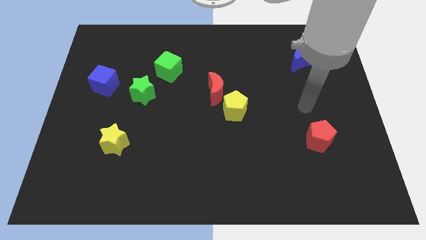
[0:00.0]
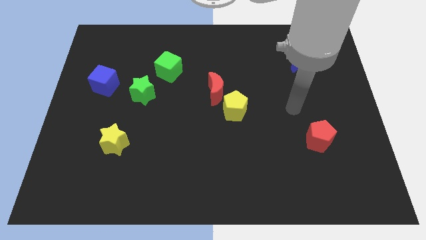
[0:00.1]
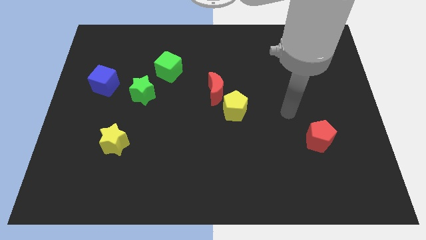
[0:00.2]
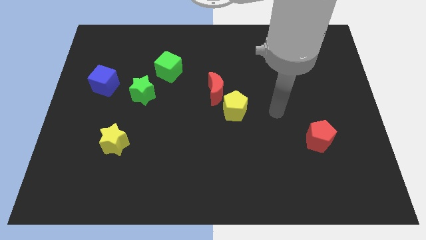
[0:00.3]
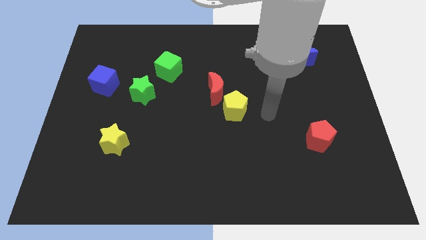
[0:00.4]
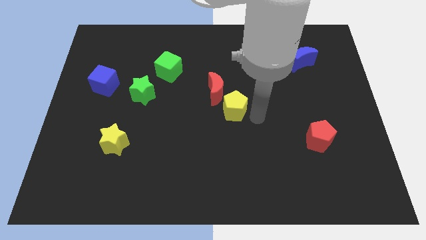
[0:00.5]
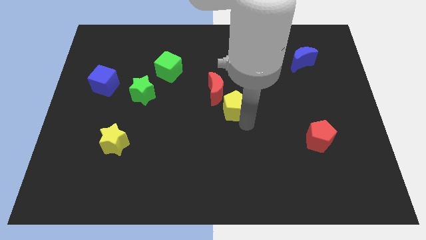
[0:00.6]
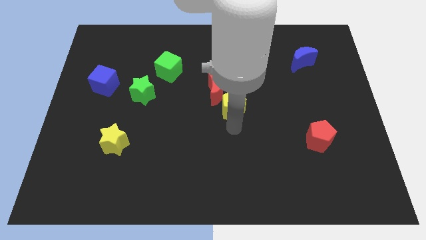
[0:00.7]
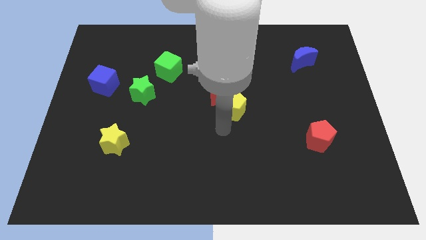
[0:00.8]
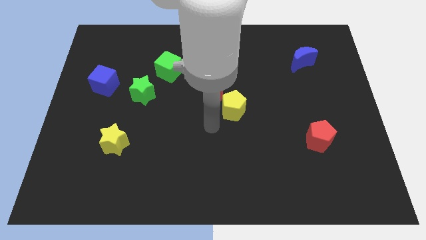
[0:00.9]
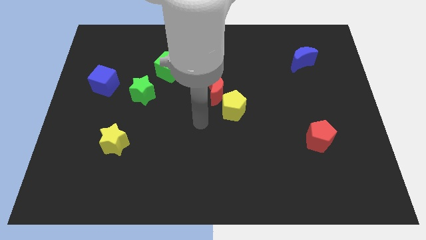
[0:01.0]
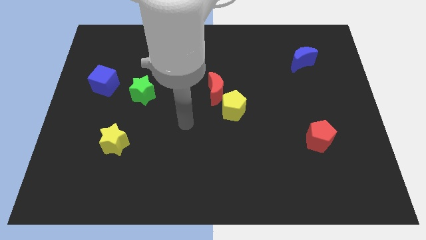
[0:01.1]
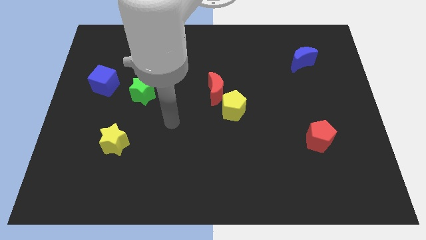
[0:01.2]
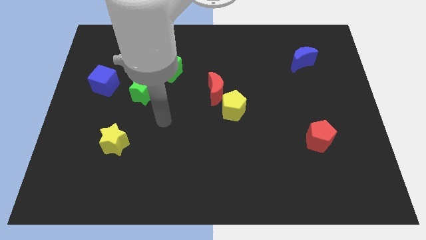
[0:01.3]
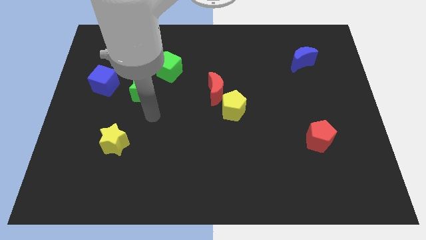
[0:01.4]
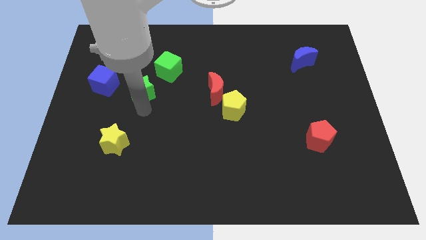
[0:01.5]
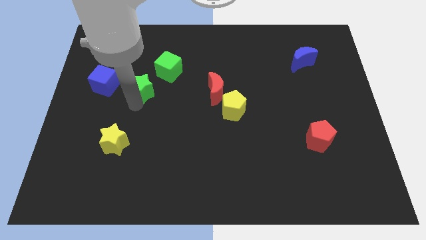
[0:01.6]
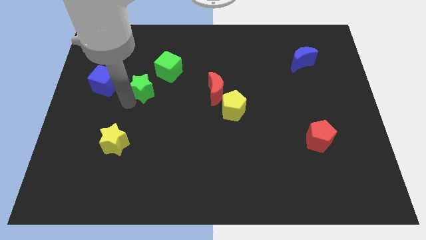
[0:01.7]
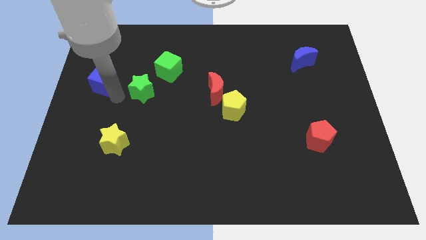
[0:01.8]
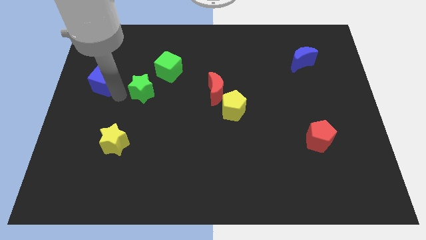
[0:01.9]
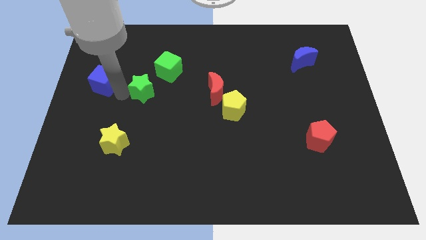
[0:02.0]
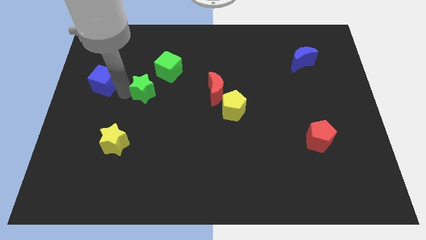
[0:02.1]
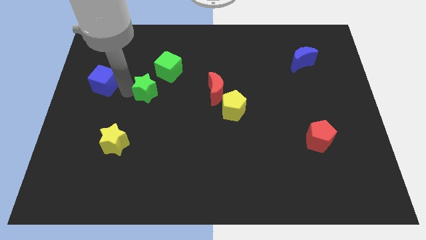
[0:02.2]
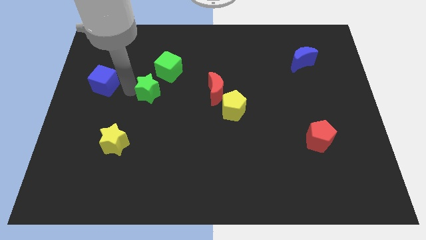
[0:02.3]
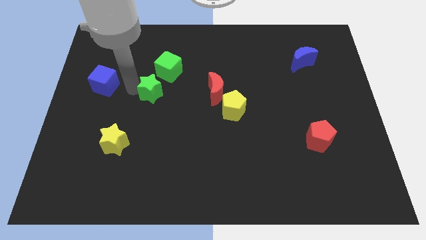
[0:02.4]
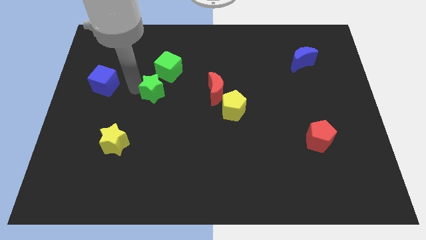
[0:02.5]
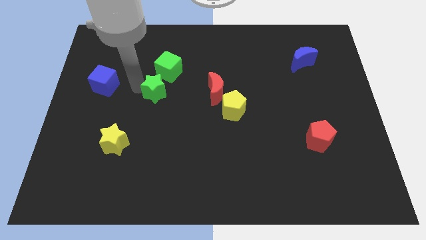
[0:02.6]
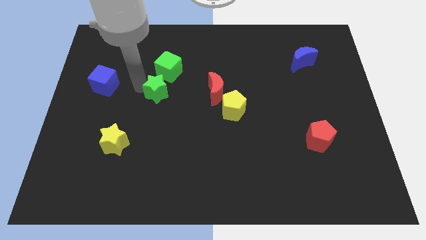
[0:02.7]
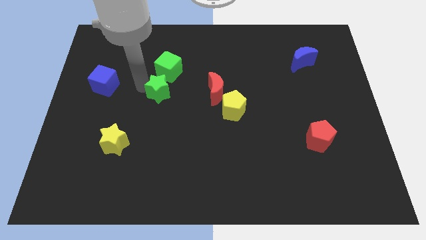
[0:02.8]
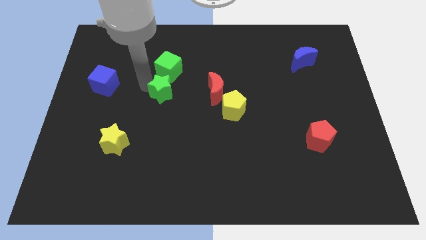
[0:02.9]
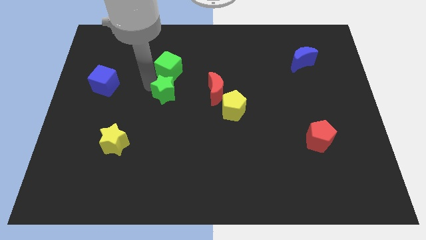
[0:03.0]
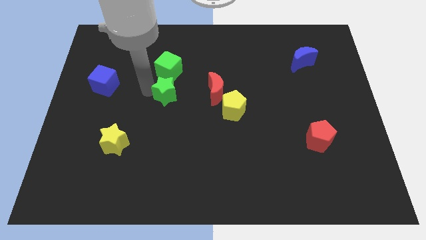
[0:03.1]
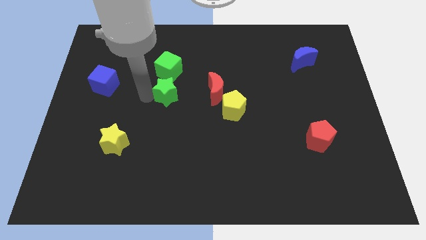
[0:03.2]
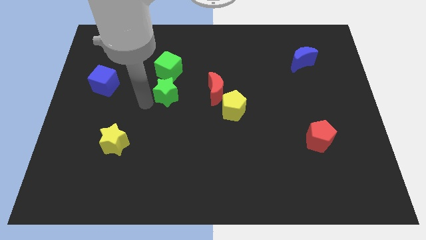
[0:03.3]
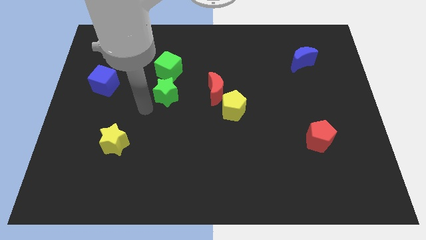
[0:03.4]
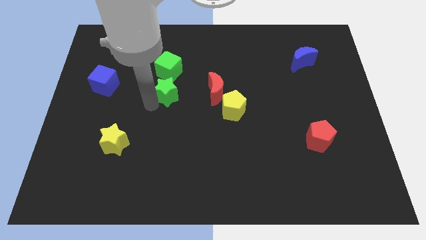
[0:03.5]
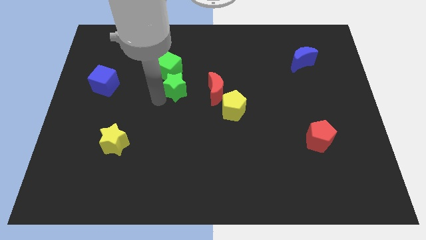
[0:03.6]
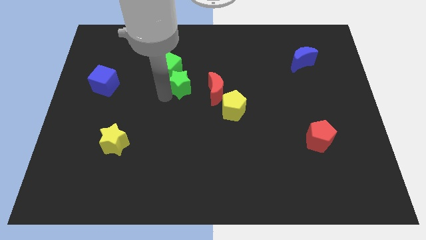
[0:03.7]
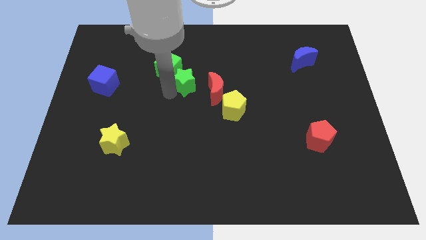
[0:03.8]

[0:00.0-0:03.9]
move the green star to the right side of the green cube

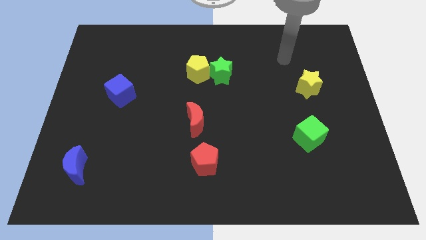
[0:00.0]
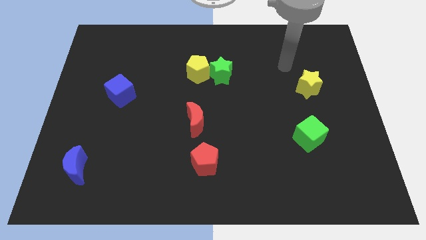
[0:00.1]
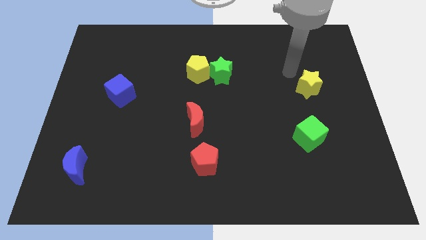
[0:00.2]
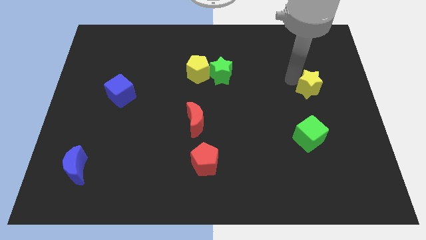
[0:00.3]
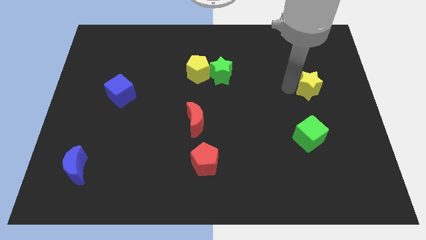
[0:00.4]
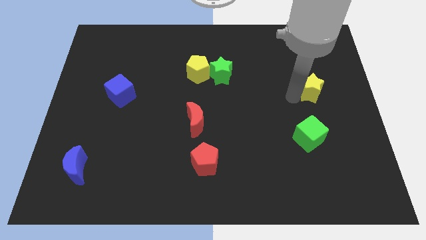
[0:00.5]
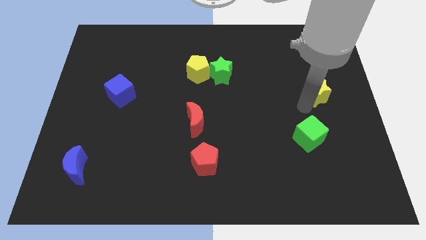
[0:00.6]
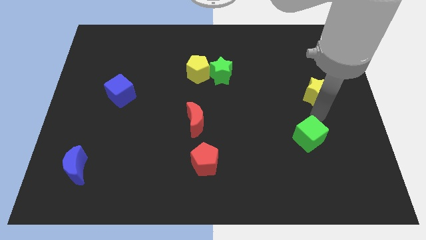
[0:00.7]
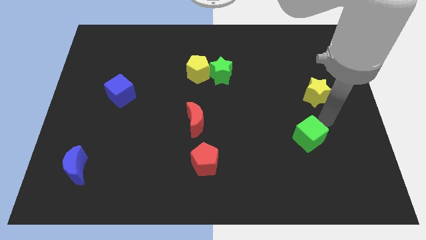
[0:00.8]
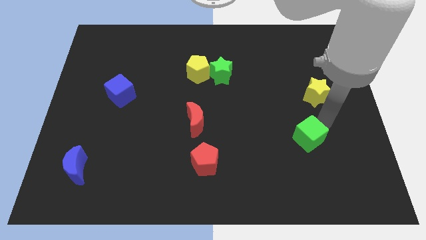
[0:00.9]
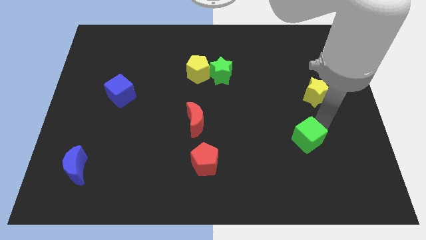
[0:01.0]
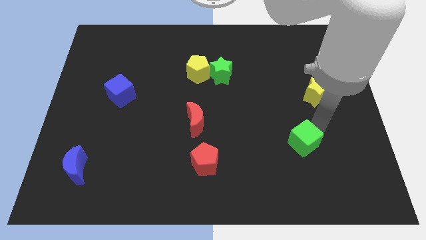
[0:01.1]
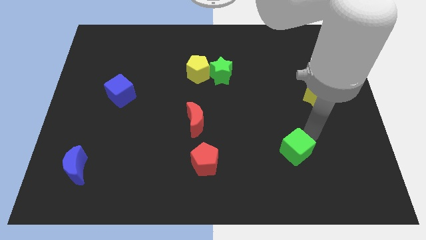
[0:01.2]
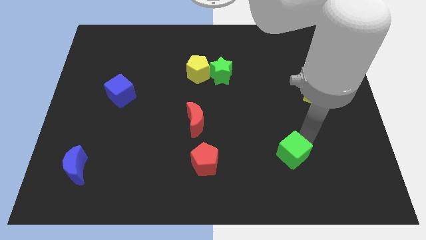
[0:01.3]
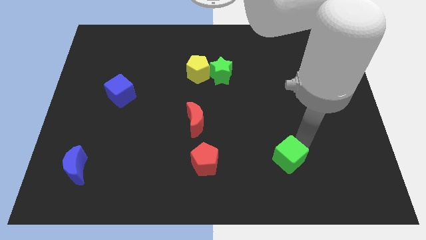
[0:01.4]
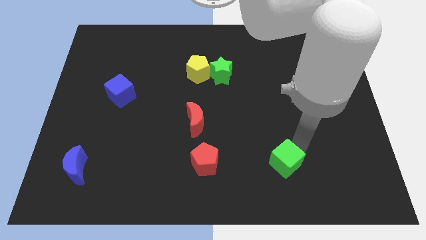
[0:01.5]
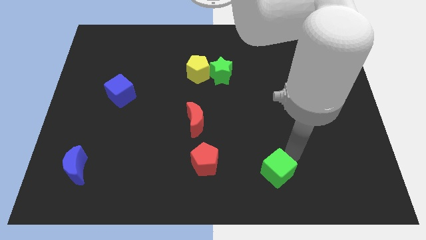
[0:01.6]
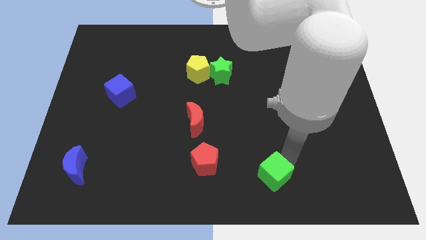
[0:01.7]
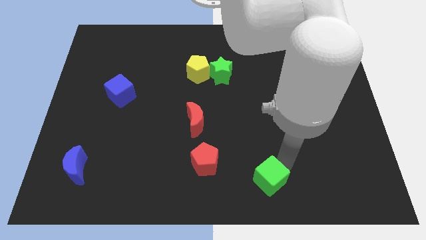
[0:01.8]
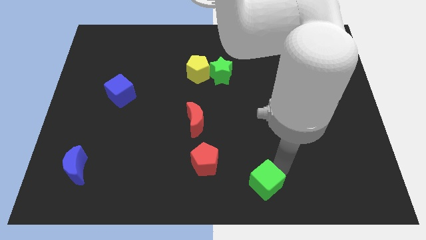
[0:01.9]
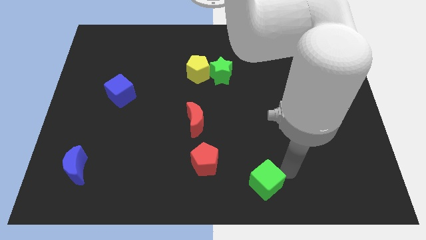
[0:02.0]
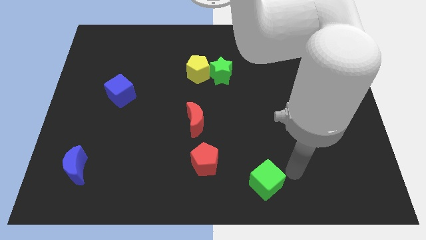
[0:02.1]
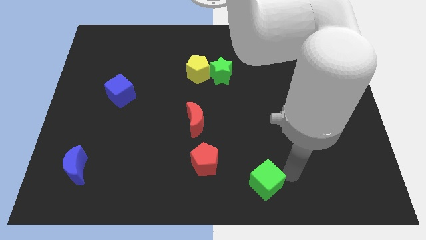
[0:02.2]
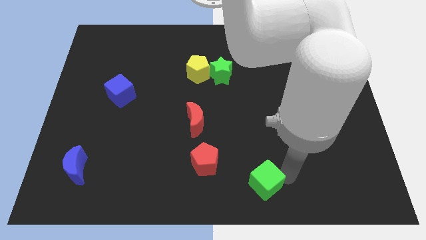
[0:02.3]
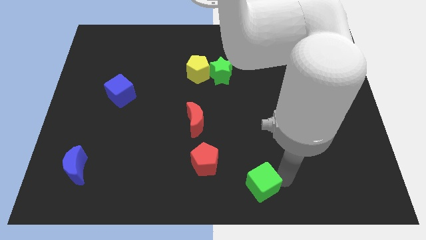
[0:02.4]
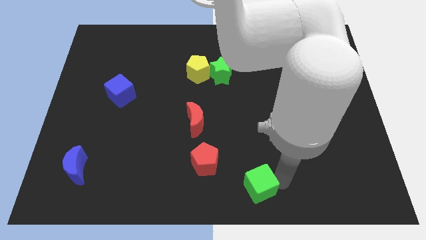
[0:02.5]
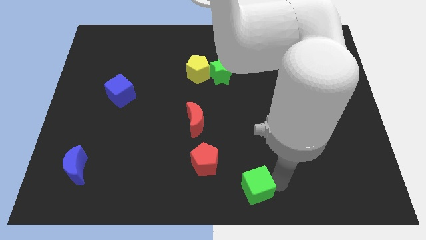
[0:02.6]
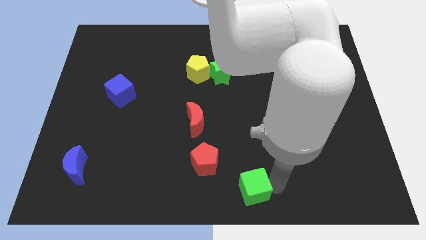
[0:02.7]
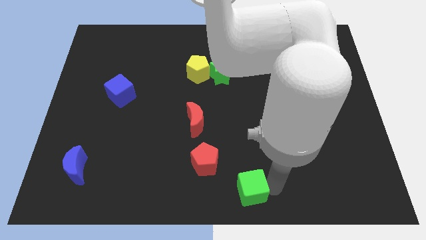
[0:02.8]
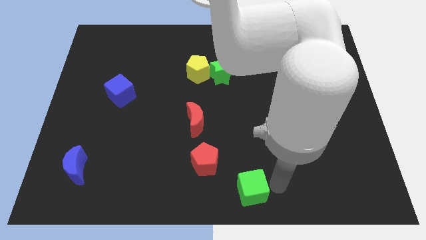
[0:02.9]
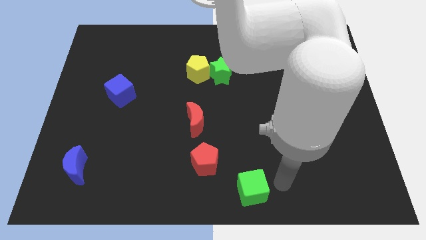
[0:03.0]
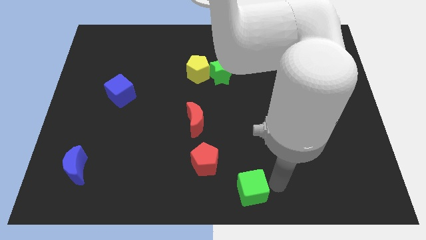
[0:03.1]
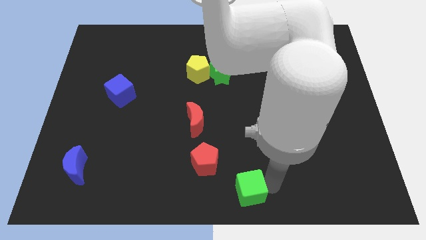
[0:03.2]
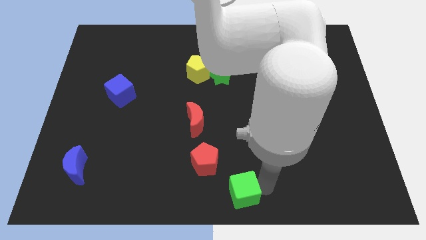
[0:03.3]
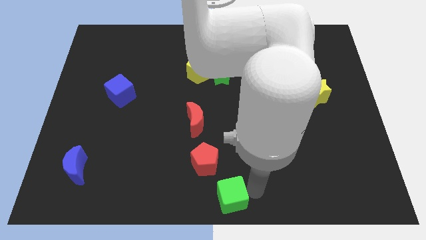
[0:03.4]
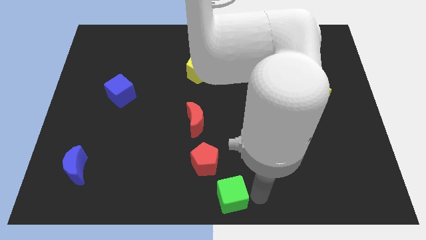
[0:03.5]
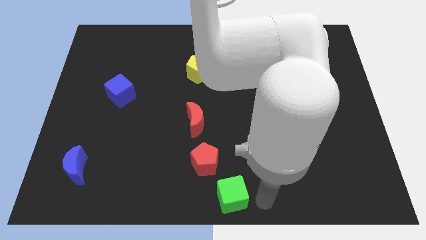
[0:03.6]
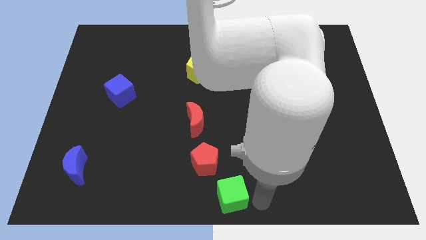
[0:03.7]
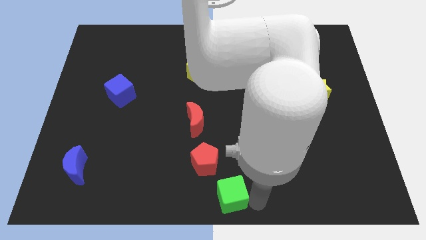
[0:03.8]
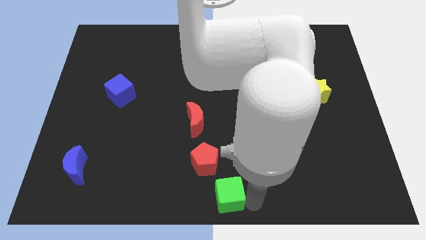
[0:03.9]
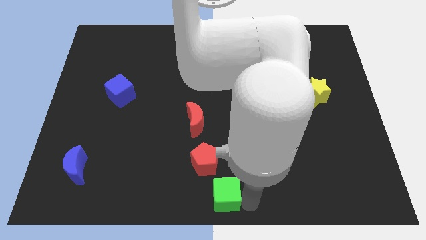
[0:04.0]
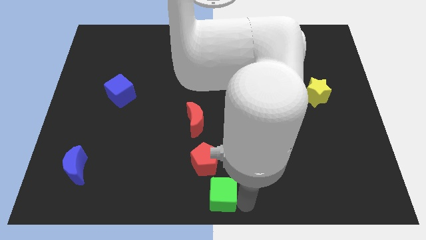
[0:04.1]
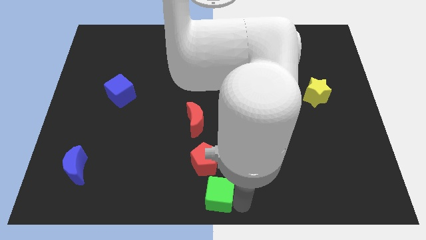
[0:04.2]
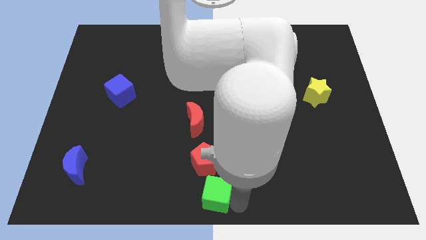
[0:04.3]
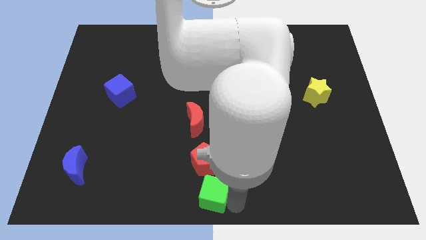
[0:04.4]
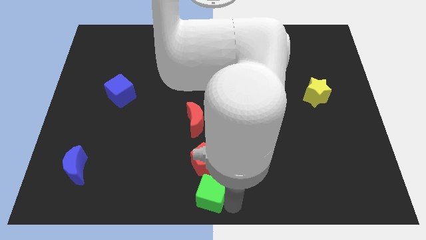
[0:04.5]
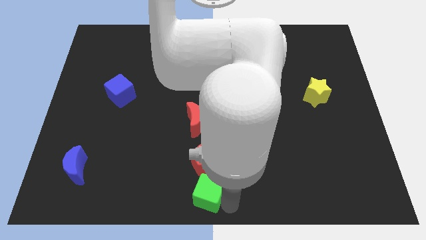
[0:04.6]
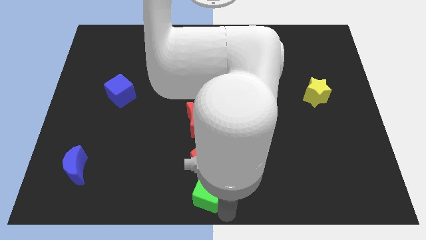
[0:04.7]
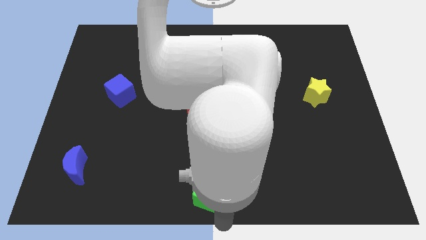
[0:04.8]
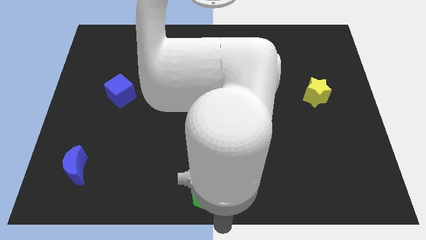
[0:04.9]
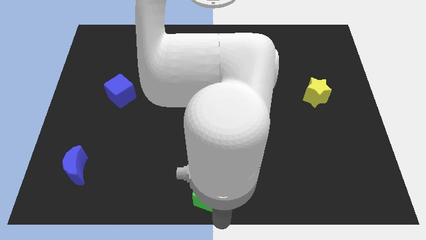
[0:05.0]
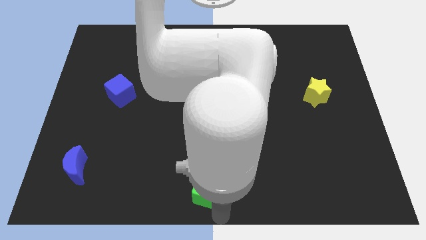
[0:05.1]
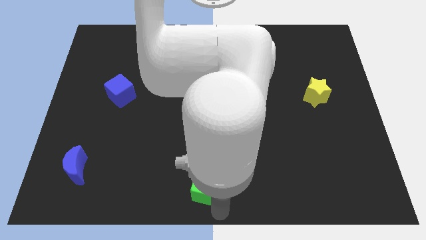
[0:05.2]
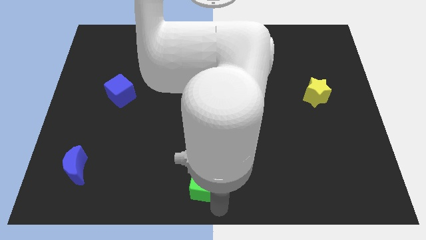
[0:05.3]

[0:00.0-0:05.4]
put the green cube below the red moon
